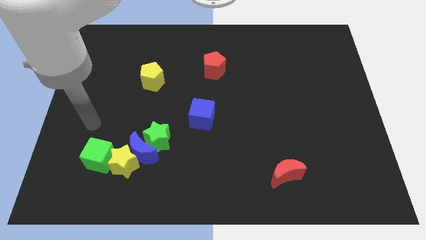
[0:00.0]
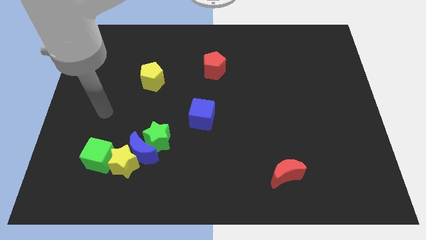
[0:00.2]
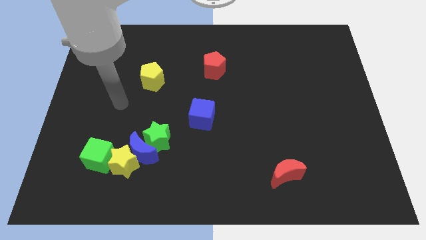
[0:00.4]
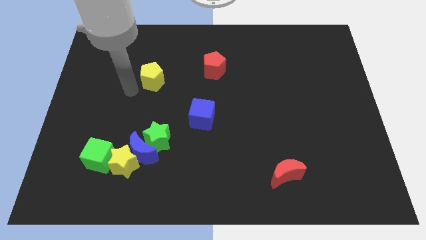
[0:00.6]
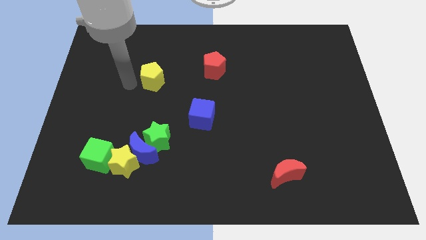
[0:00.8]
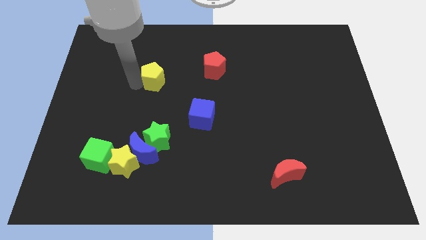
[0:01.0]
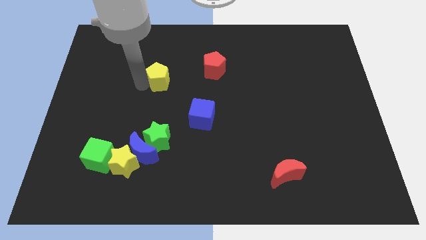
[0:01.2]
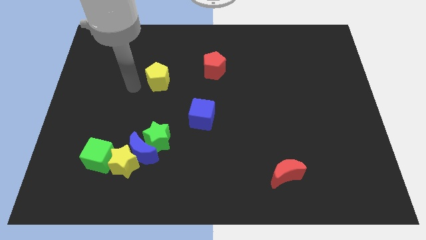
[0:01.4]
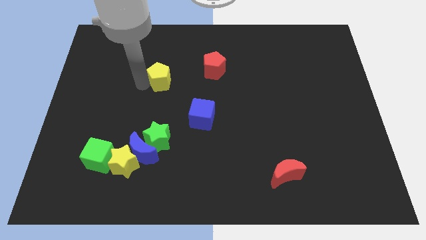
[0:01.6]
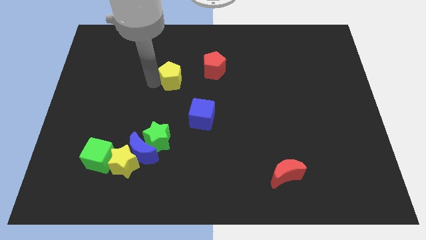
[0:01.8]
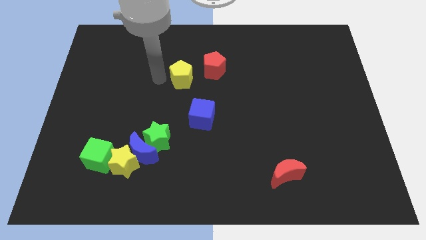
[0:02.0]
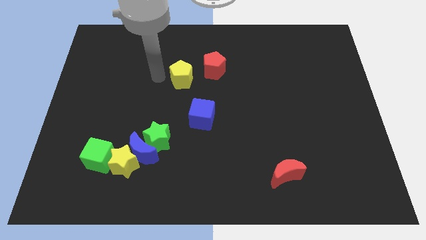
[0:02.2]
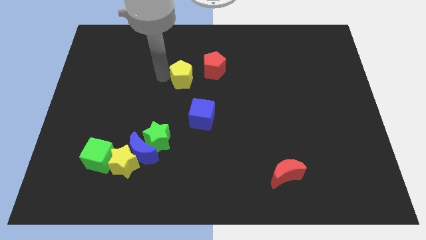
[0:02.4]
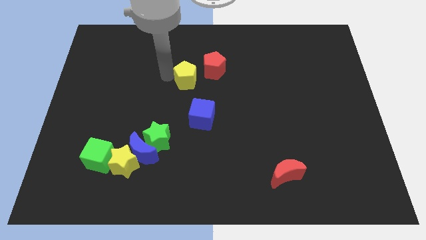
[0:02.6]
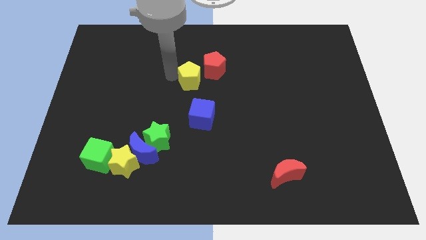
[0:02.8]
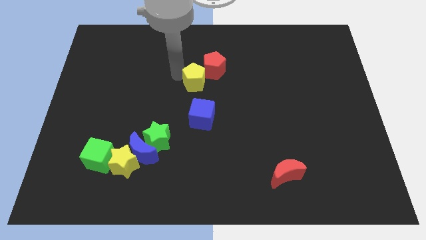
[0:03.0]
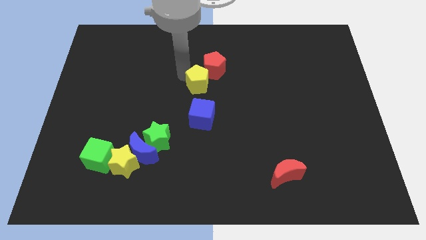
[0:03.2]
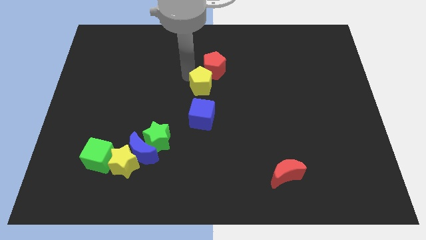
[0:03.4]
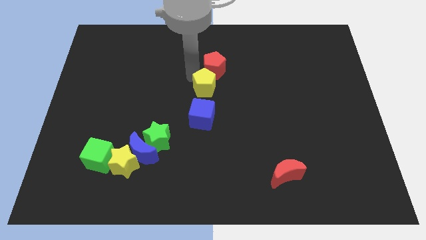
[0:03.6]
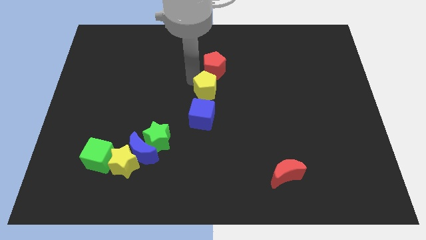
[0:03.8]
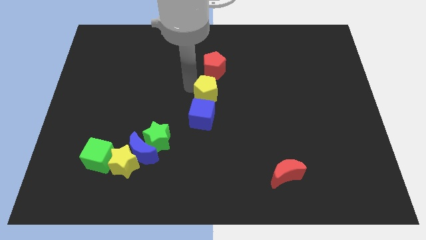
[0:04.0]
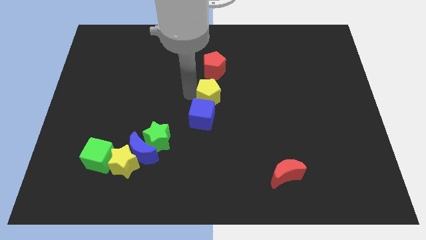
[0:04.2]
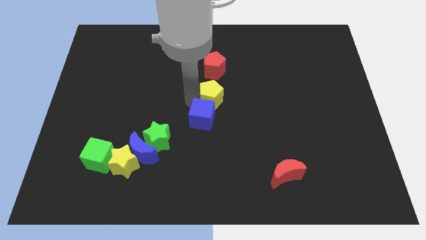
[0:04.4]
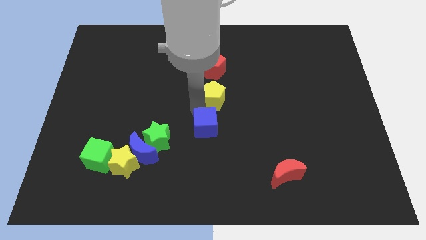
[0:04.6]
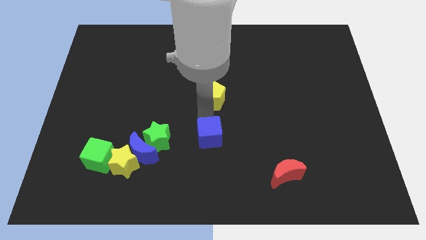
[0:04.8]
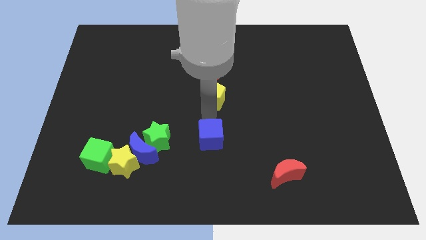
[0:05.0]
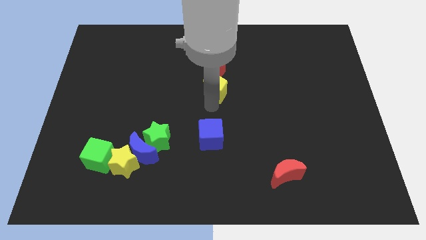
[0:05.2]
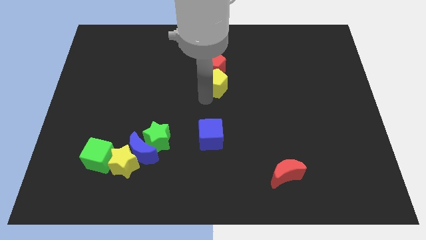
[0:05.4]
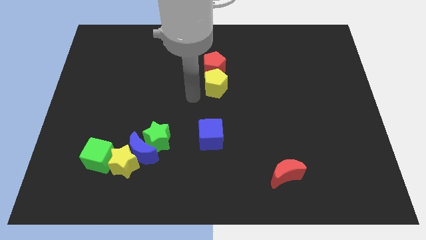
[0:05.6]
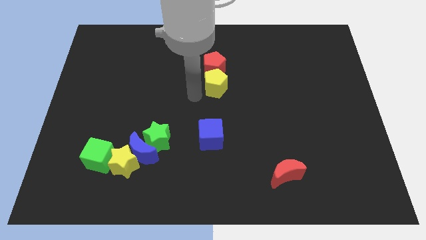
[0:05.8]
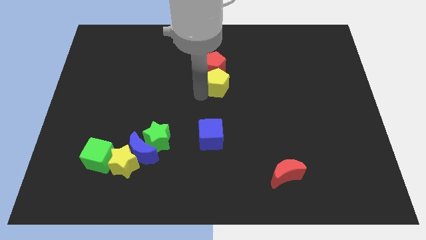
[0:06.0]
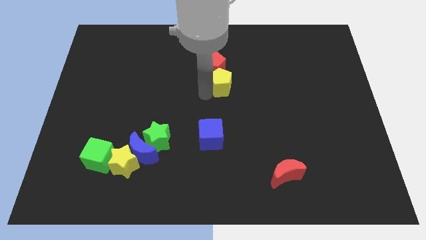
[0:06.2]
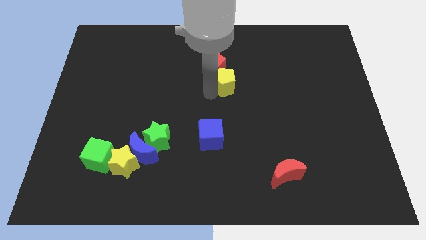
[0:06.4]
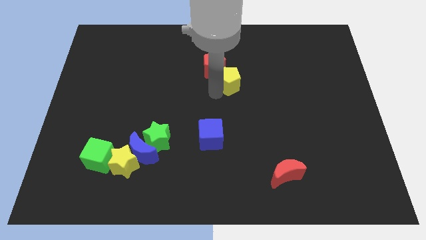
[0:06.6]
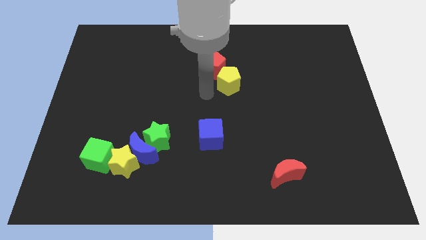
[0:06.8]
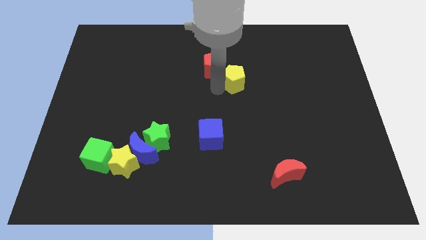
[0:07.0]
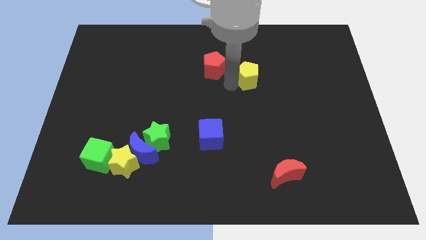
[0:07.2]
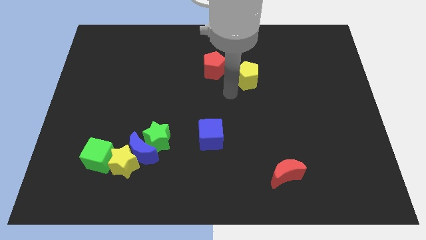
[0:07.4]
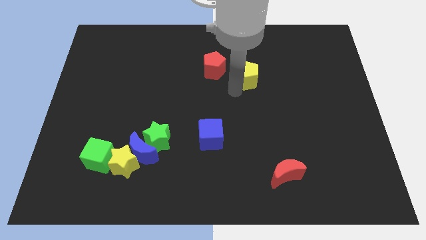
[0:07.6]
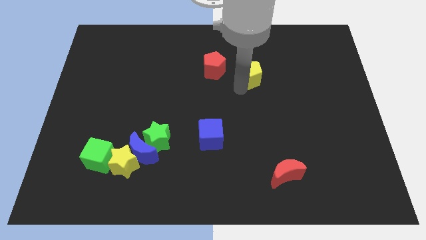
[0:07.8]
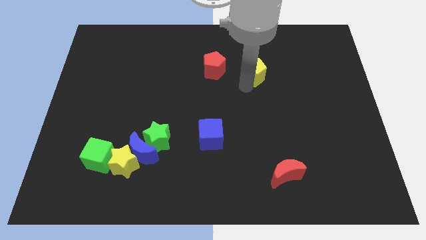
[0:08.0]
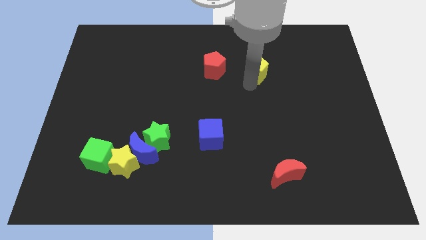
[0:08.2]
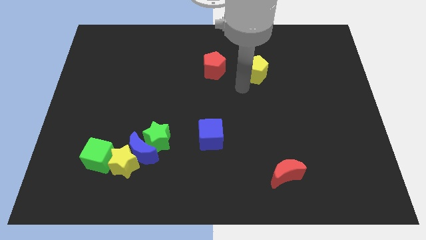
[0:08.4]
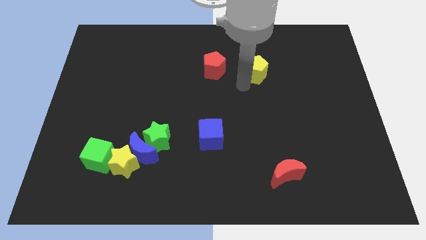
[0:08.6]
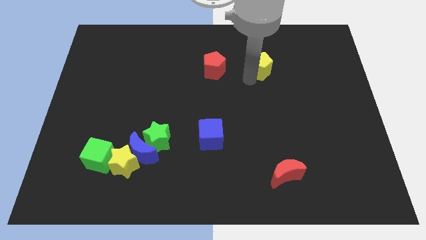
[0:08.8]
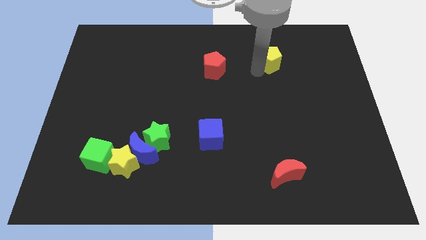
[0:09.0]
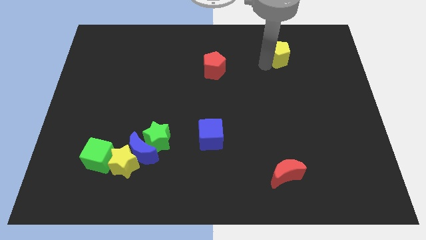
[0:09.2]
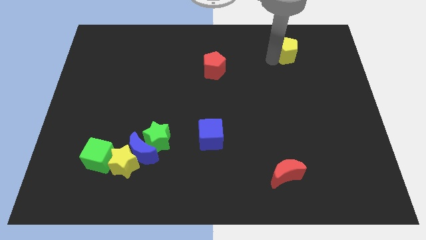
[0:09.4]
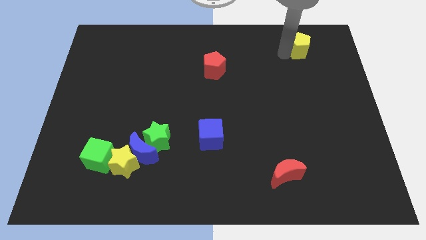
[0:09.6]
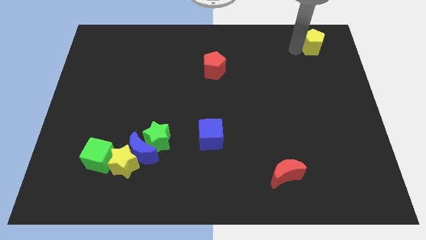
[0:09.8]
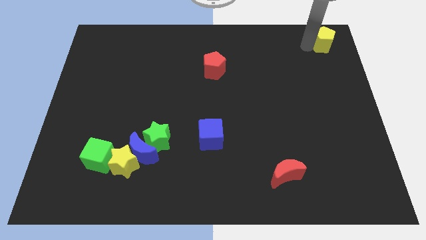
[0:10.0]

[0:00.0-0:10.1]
move the yellow pentagon to the top right corner

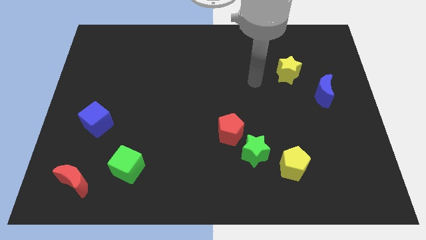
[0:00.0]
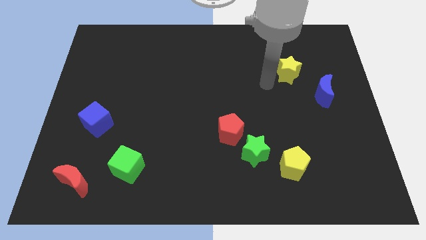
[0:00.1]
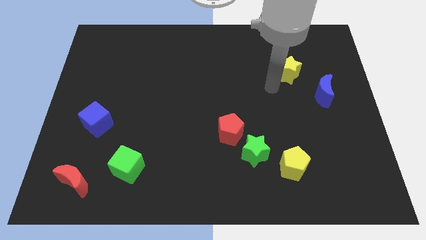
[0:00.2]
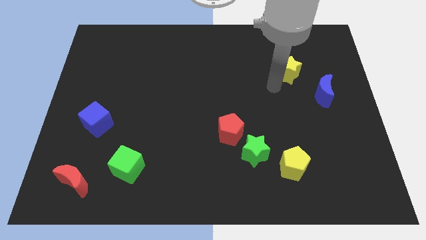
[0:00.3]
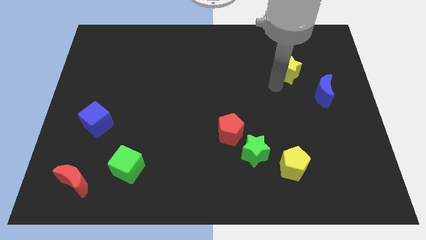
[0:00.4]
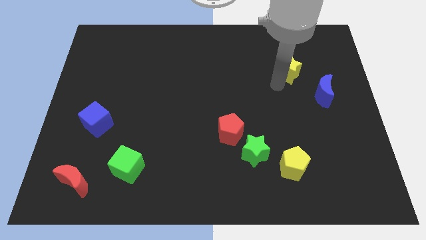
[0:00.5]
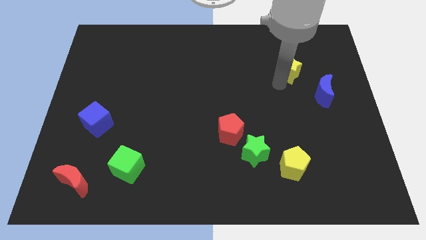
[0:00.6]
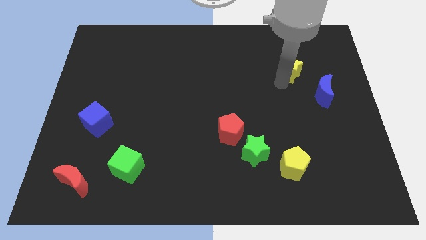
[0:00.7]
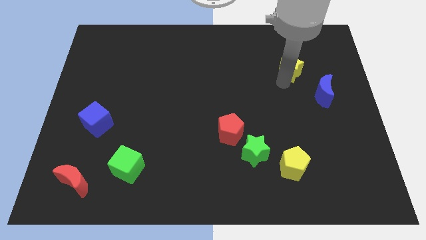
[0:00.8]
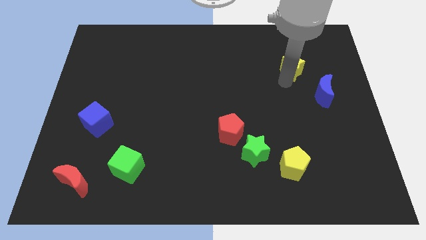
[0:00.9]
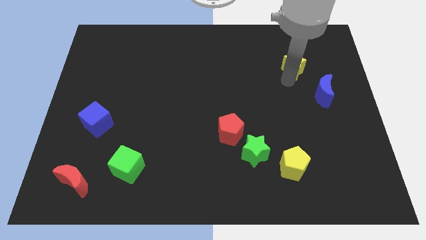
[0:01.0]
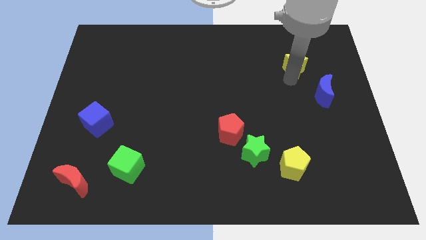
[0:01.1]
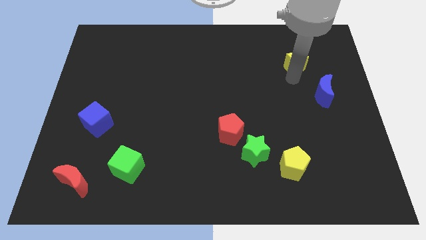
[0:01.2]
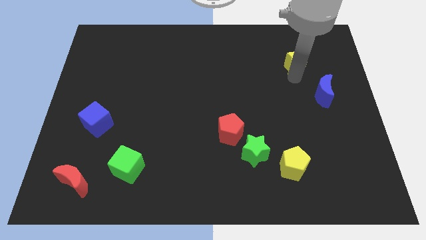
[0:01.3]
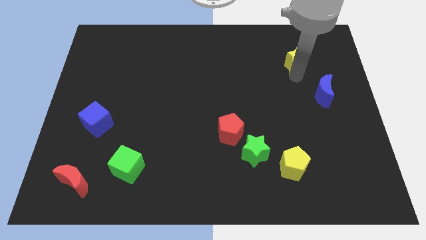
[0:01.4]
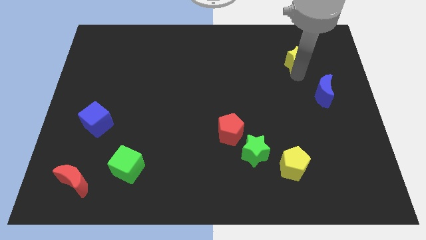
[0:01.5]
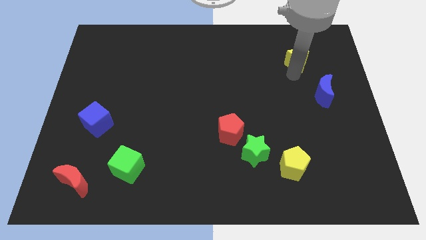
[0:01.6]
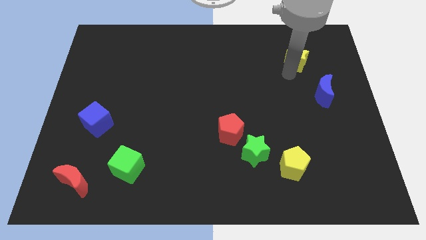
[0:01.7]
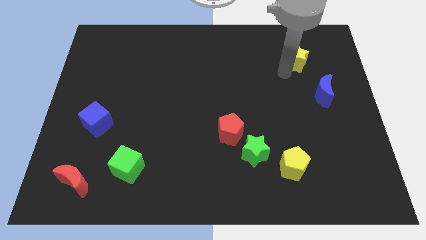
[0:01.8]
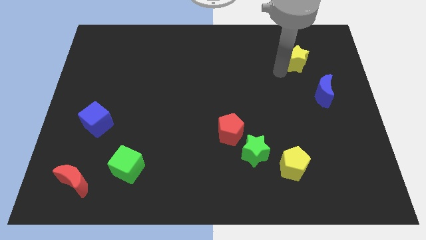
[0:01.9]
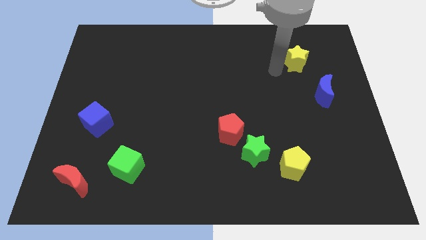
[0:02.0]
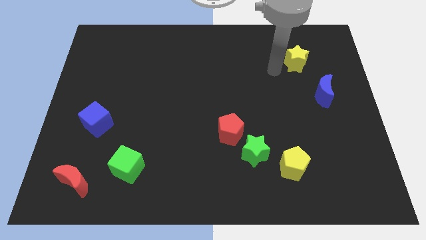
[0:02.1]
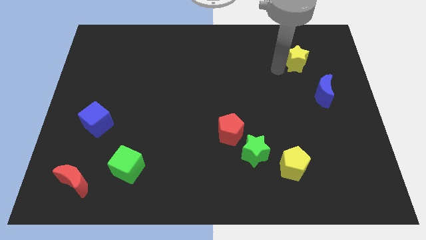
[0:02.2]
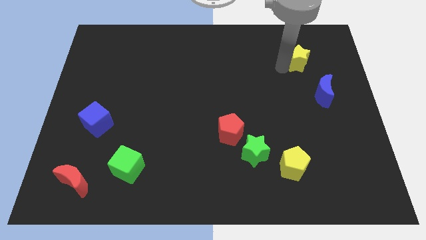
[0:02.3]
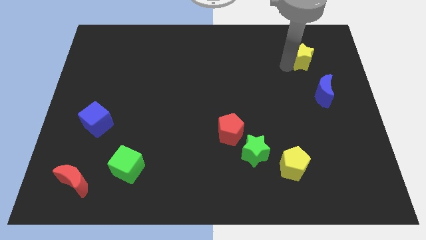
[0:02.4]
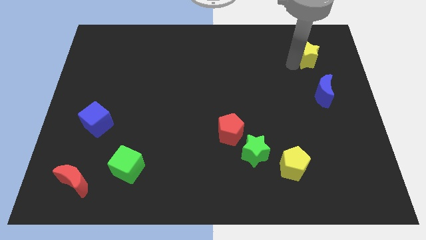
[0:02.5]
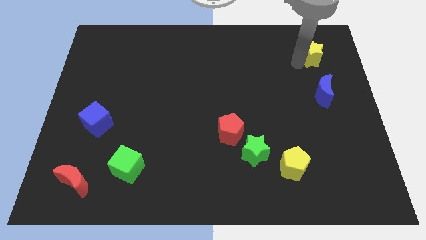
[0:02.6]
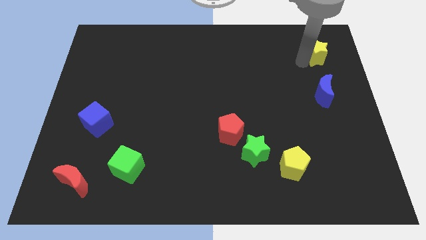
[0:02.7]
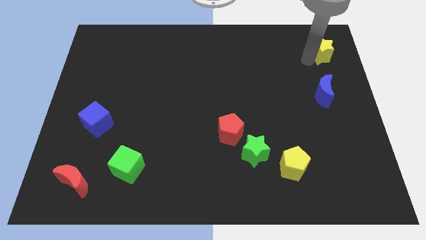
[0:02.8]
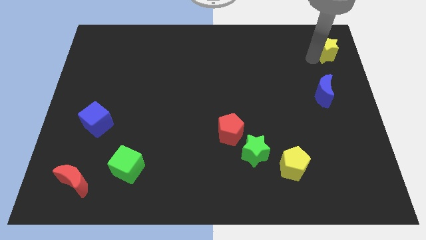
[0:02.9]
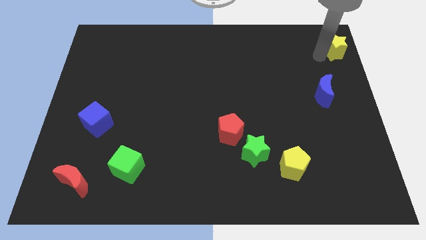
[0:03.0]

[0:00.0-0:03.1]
slide the yellow star to the top right of the board
